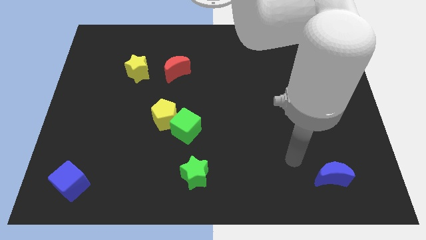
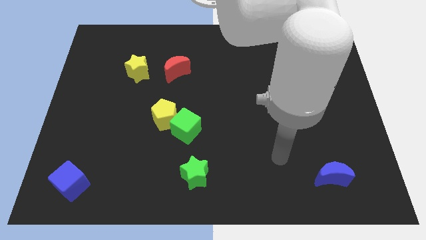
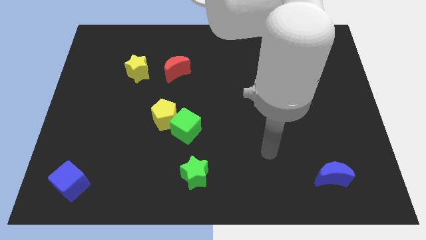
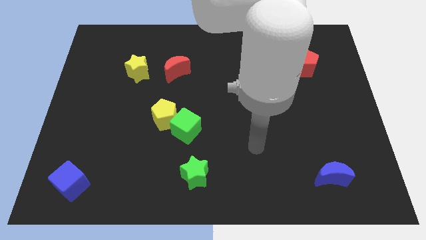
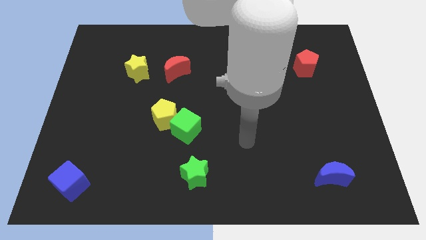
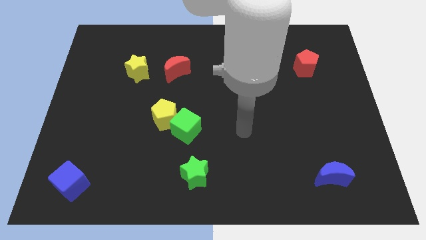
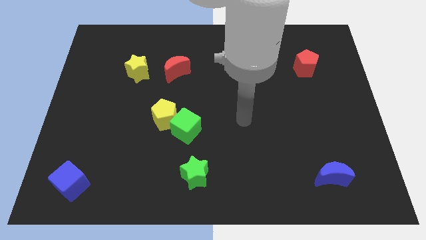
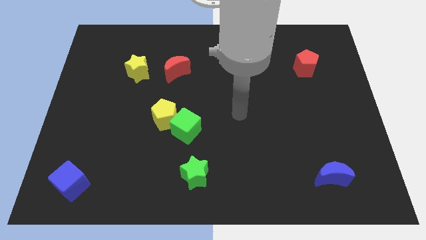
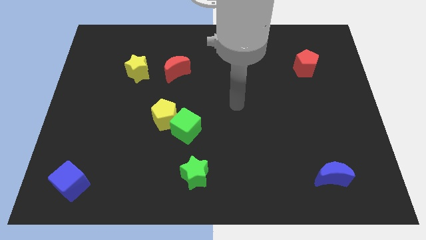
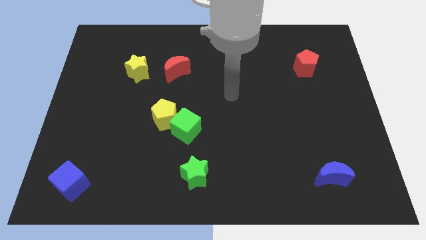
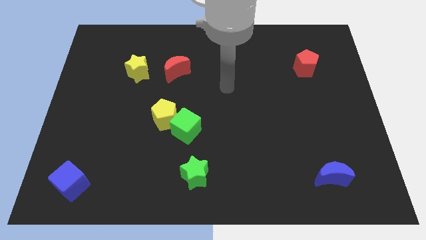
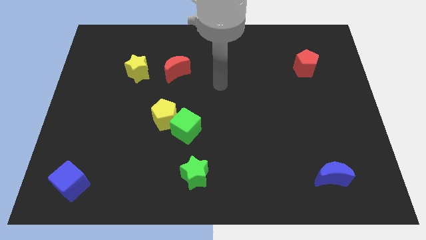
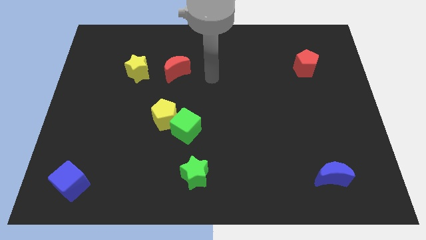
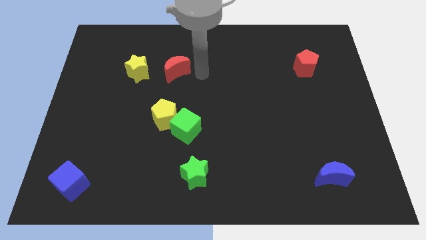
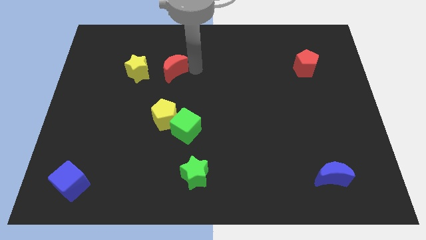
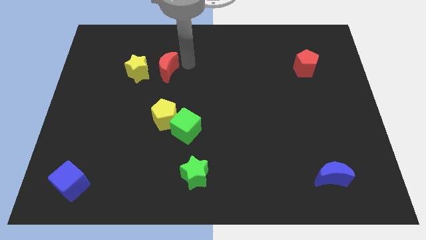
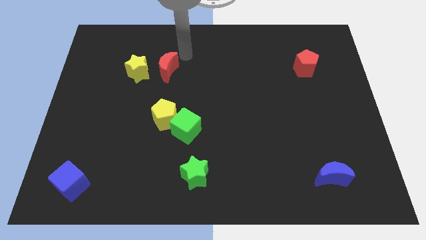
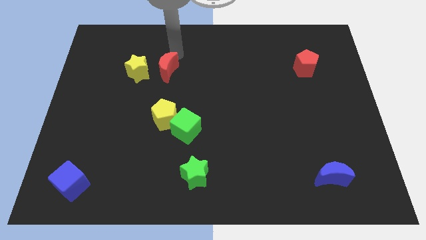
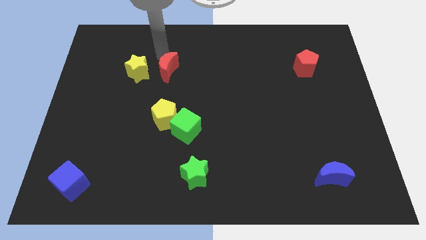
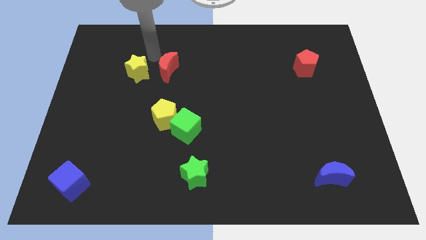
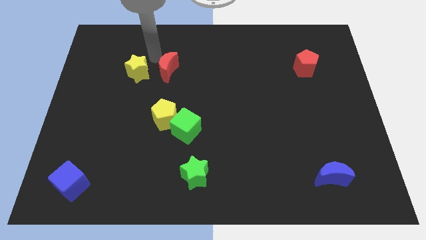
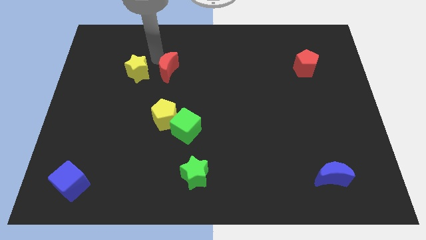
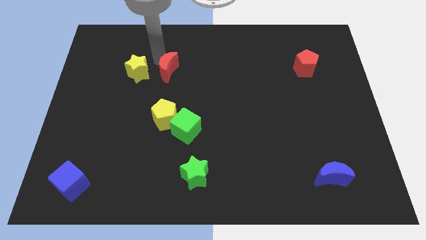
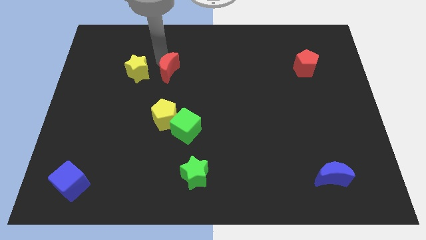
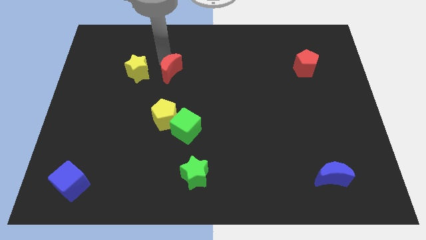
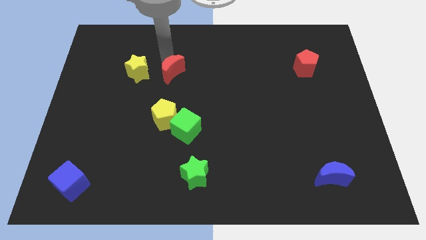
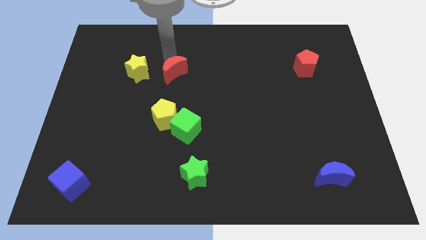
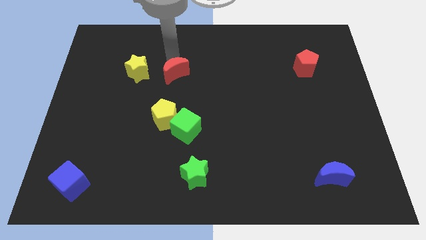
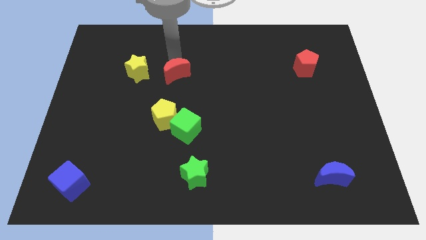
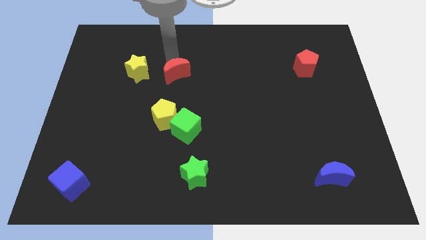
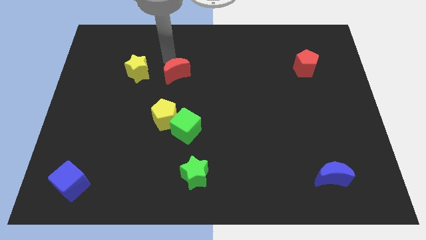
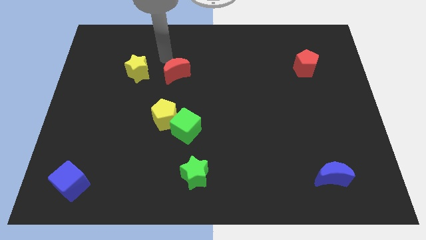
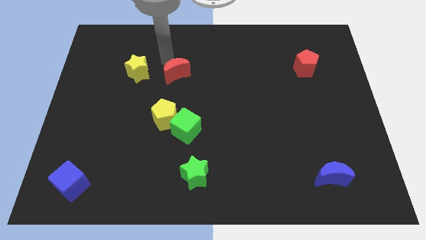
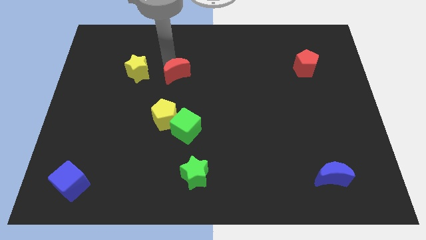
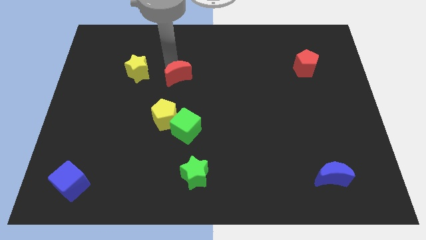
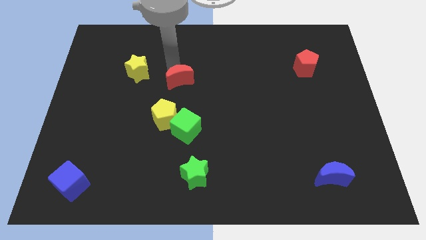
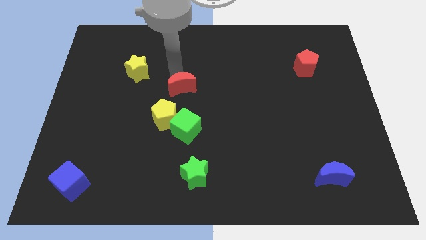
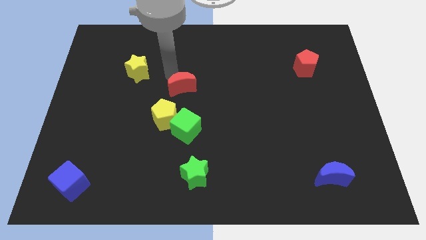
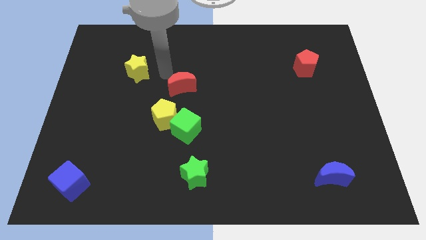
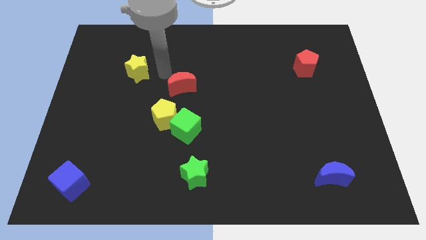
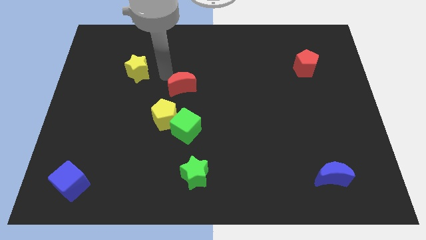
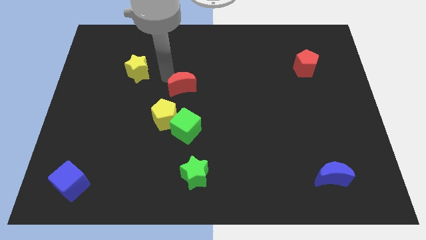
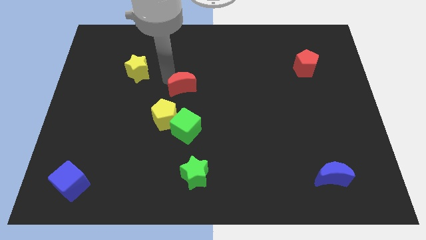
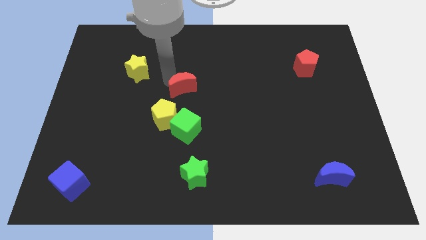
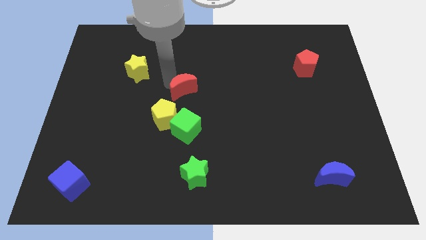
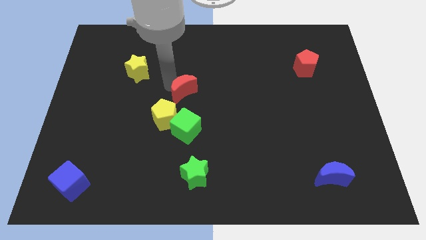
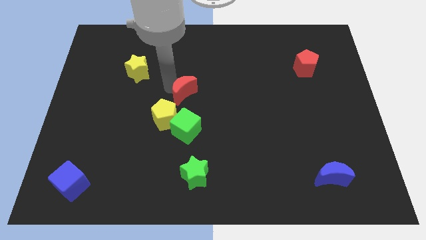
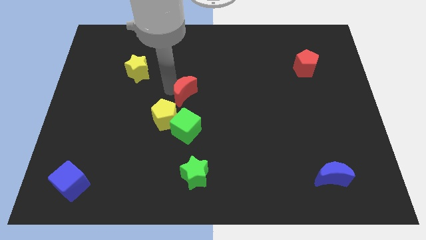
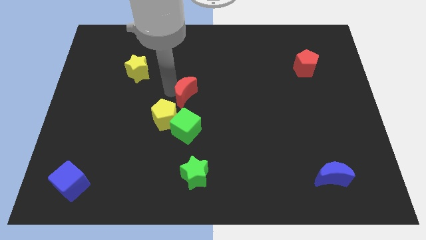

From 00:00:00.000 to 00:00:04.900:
push the red moon a little bit diagonally down and to the right

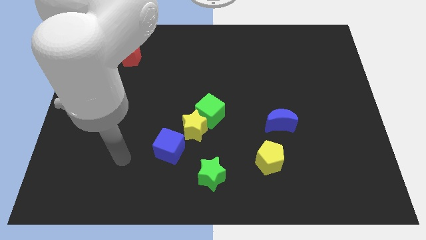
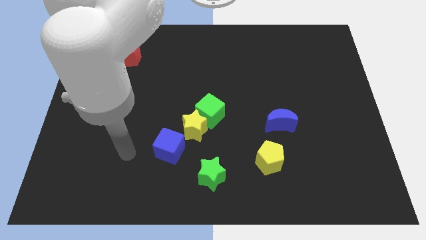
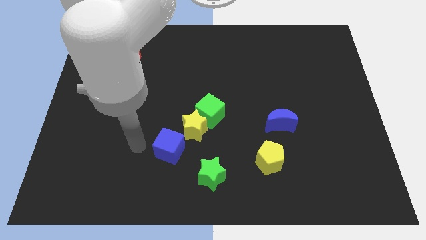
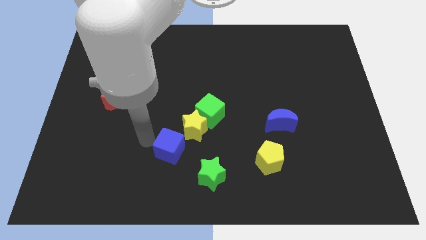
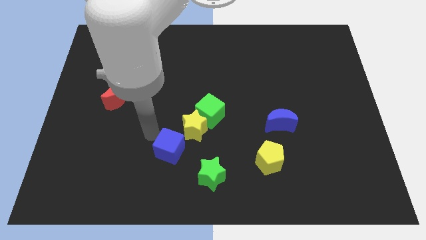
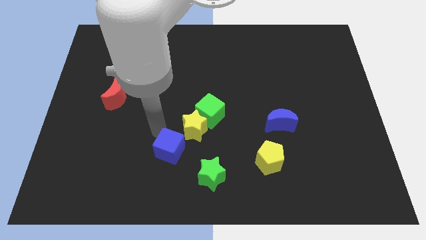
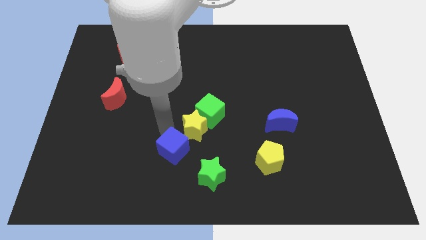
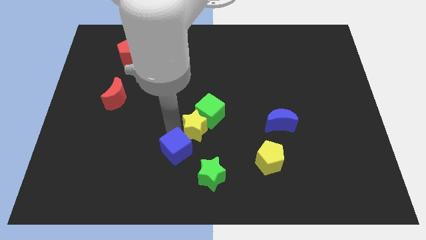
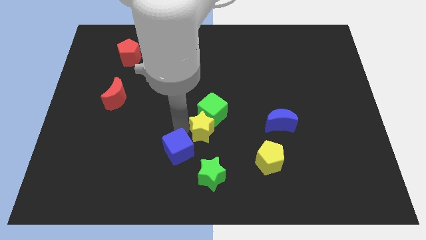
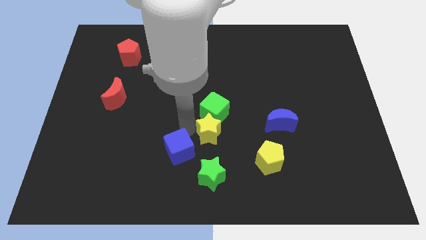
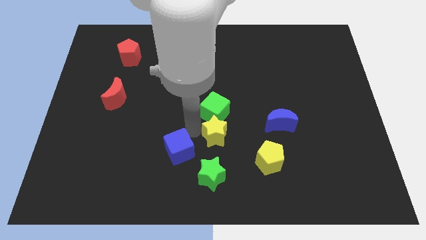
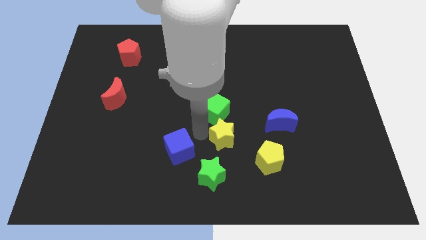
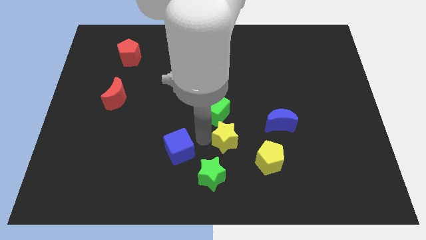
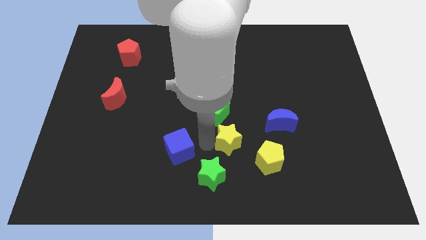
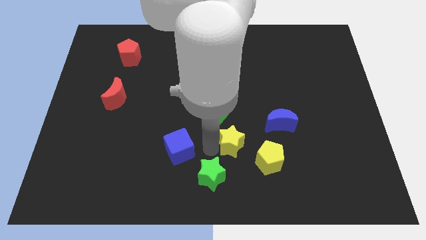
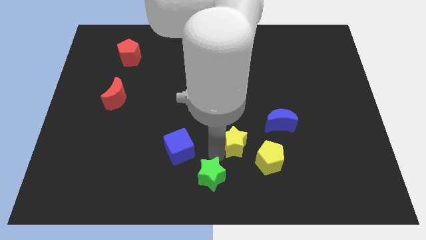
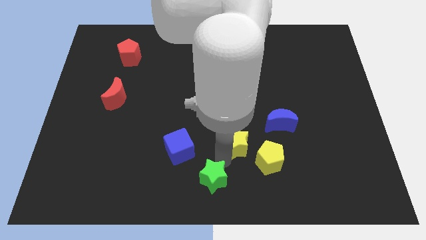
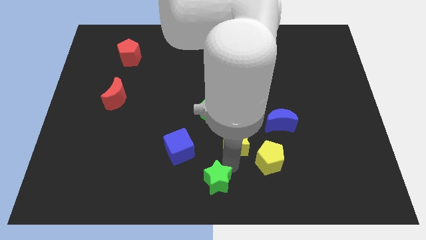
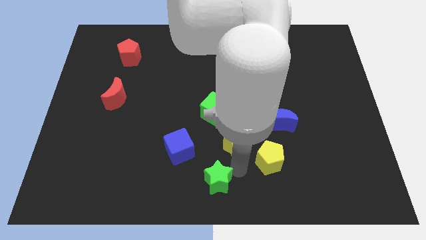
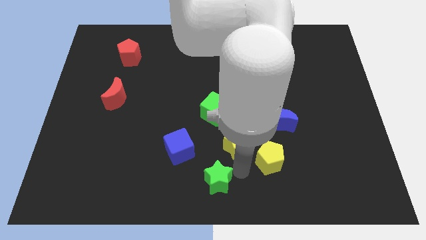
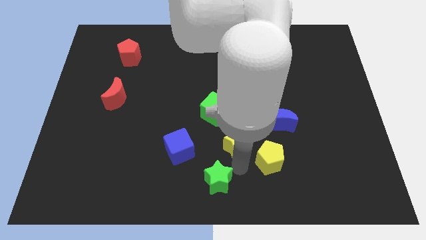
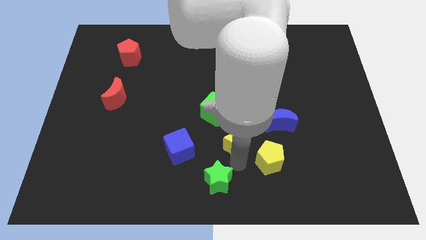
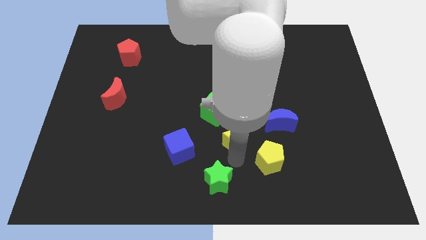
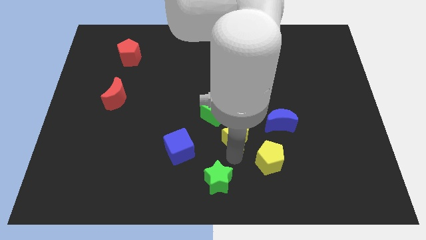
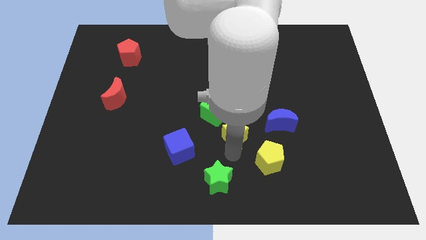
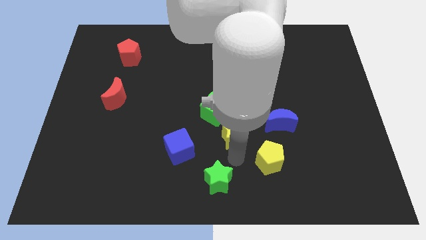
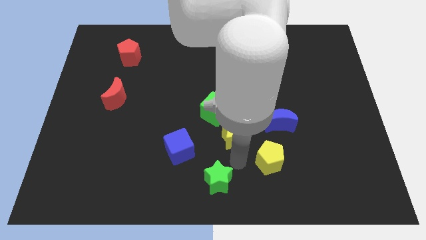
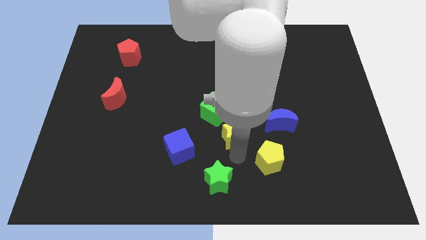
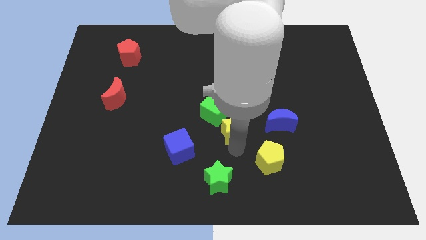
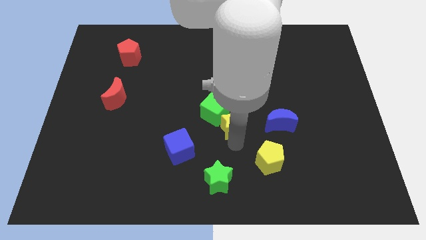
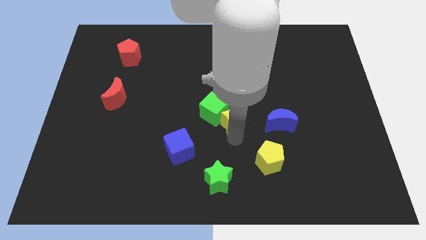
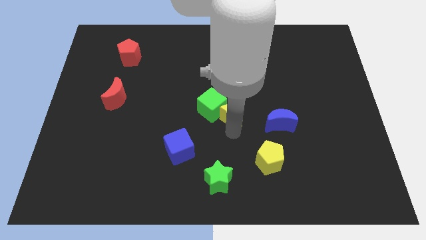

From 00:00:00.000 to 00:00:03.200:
slide the yellow star up and then right a bit
